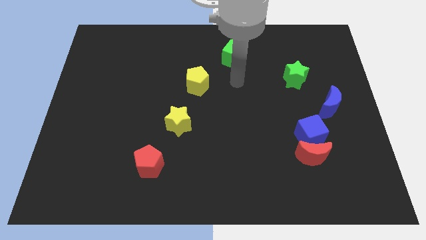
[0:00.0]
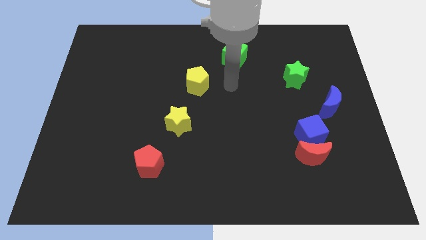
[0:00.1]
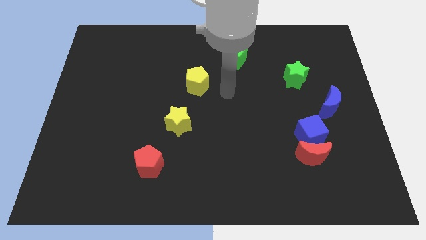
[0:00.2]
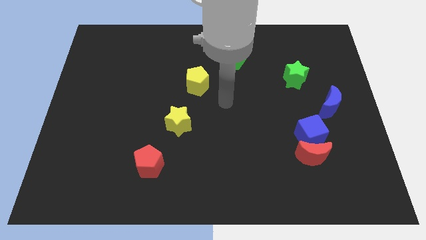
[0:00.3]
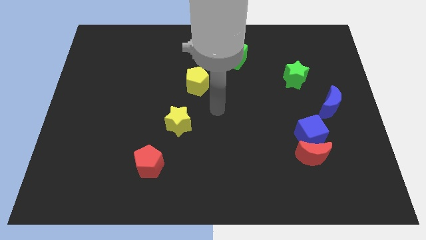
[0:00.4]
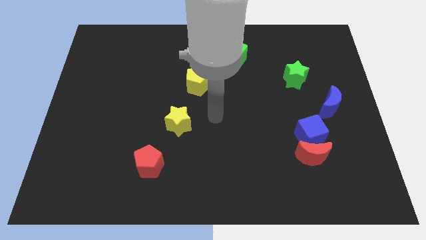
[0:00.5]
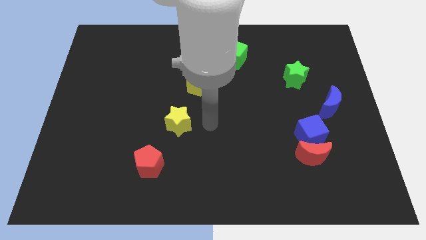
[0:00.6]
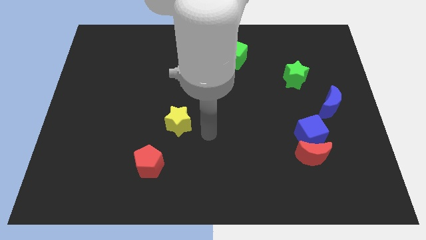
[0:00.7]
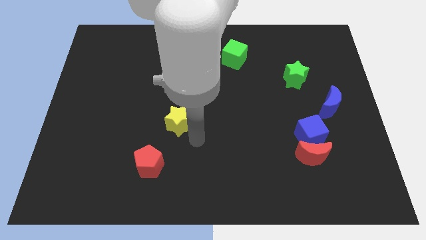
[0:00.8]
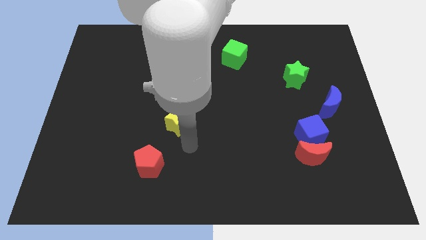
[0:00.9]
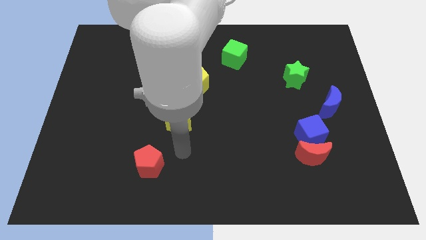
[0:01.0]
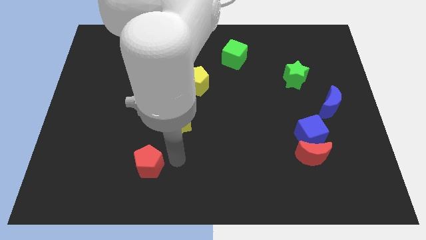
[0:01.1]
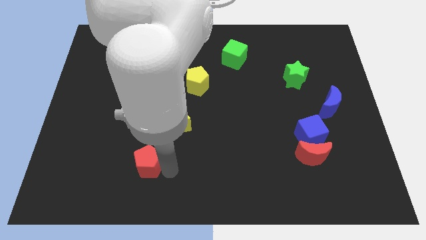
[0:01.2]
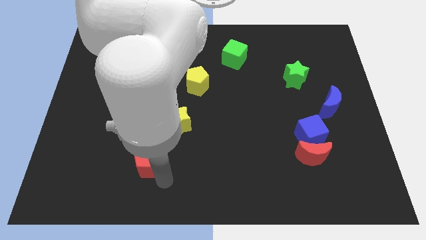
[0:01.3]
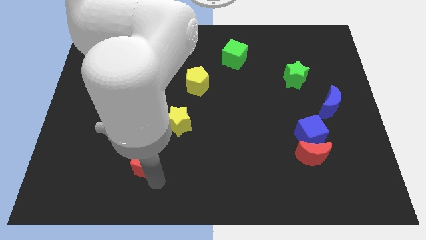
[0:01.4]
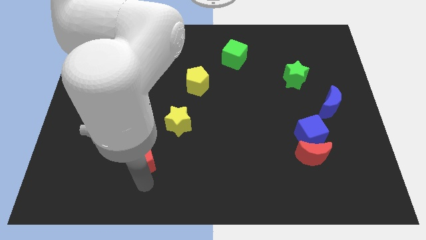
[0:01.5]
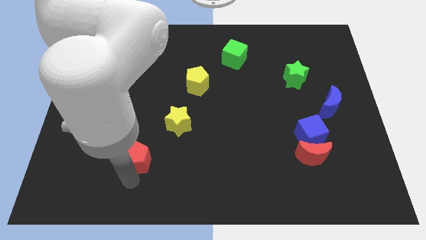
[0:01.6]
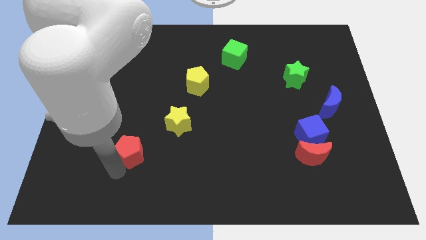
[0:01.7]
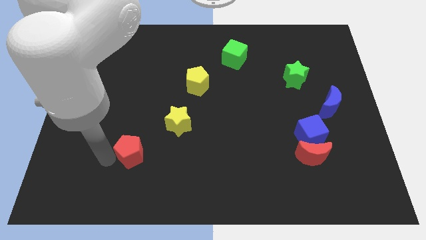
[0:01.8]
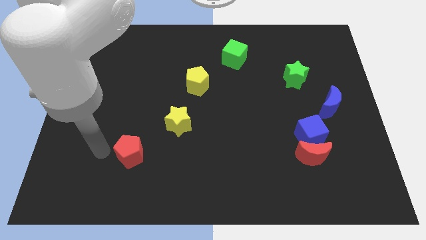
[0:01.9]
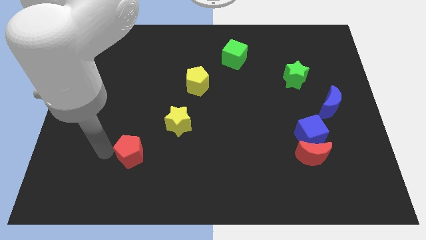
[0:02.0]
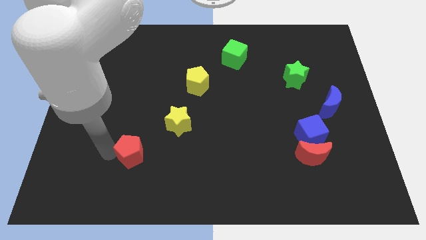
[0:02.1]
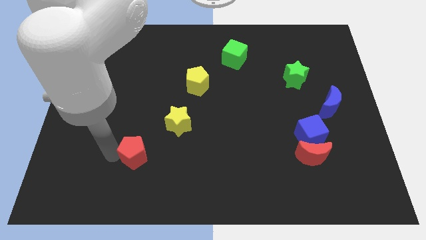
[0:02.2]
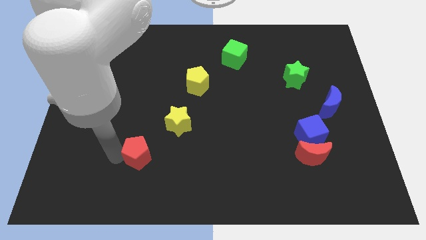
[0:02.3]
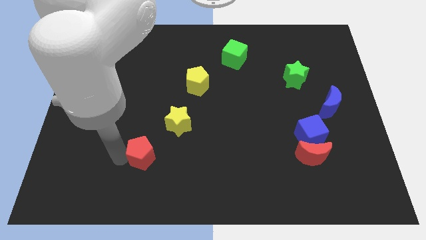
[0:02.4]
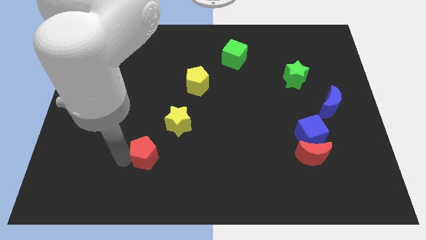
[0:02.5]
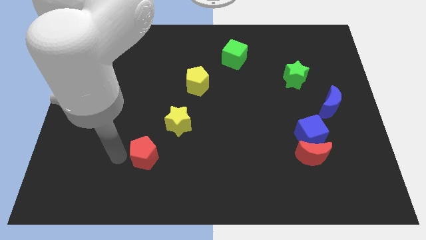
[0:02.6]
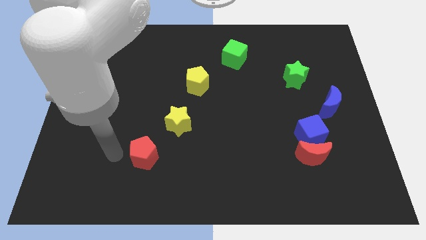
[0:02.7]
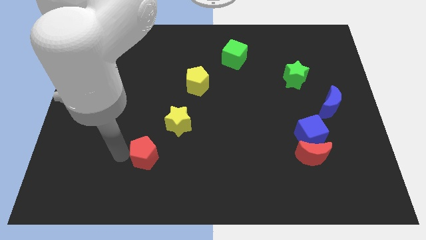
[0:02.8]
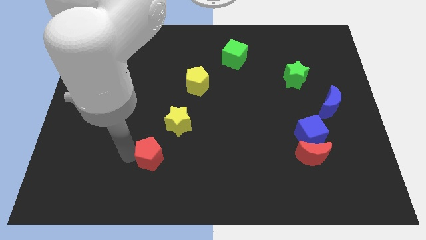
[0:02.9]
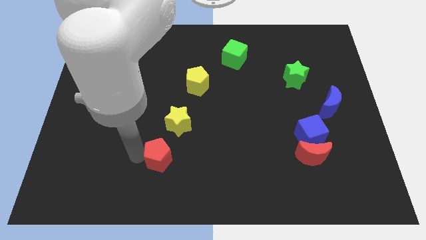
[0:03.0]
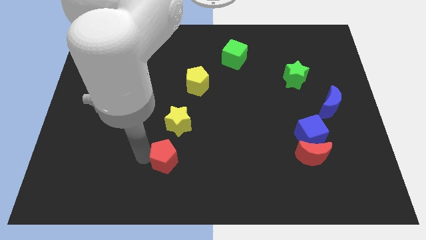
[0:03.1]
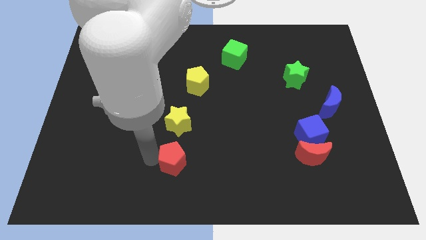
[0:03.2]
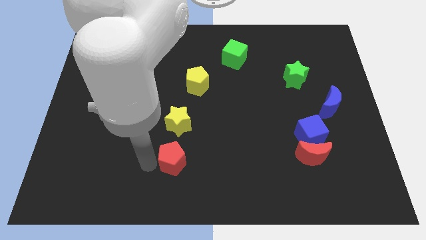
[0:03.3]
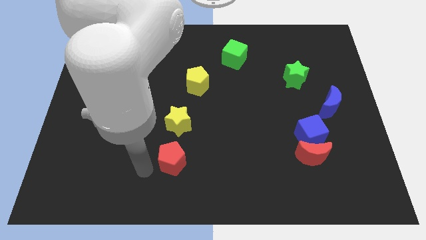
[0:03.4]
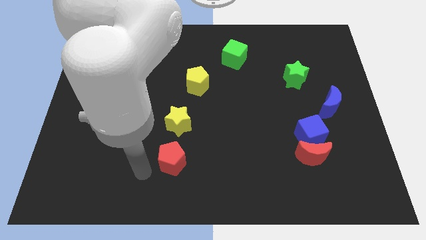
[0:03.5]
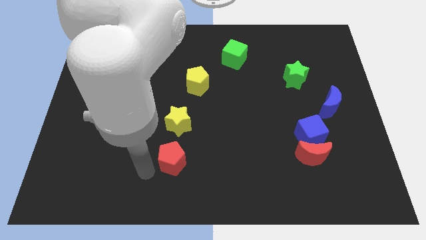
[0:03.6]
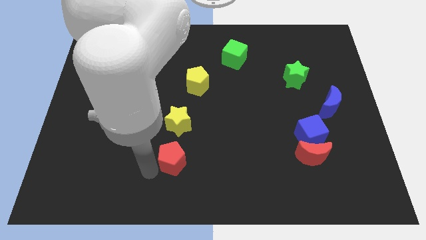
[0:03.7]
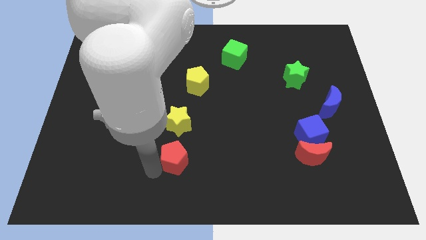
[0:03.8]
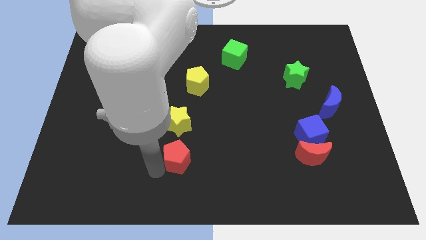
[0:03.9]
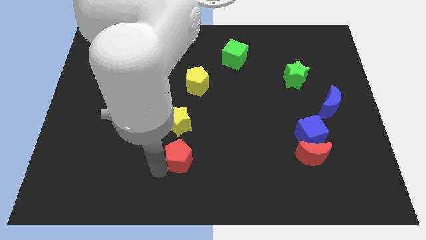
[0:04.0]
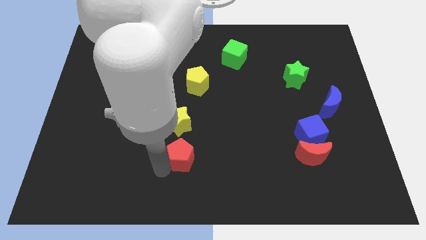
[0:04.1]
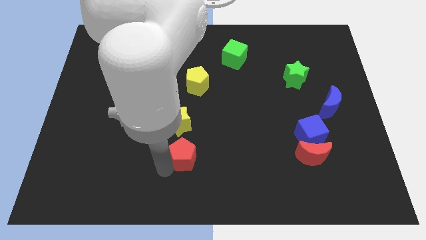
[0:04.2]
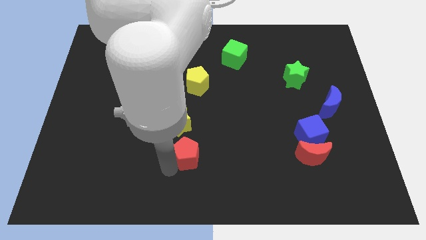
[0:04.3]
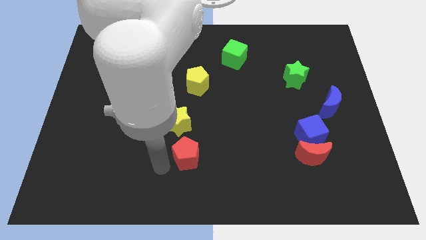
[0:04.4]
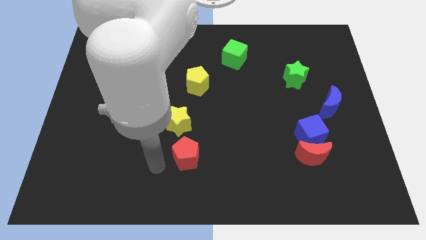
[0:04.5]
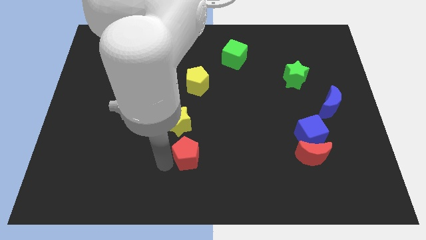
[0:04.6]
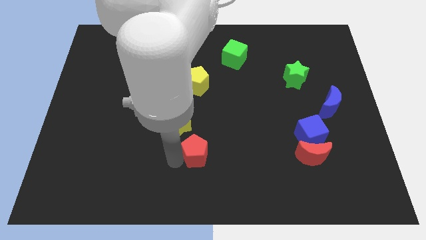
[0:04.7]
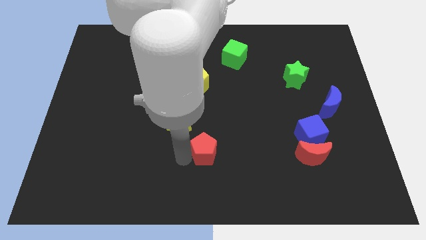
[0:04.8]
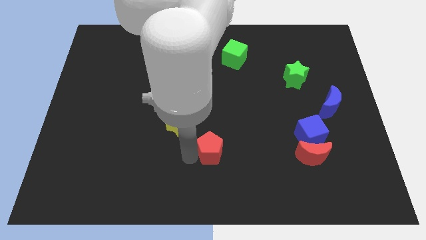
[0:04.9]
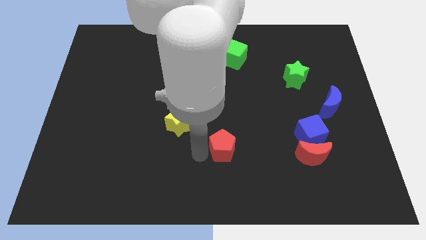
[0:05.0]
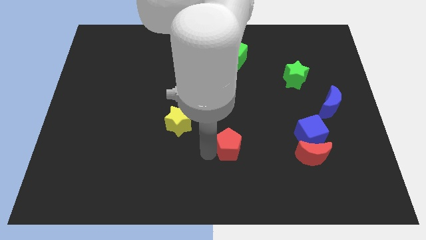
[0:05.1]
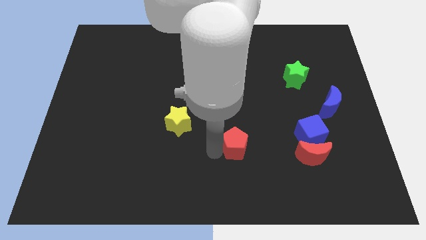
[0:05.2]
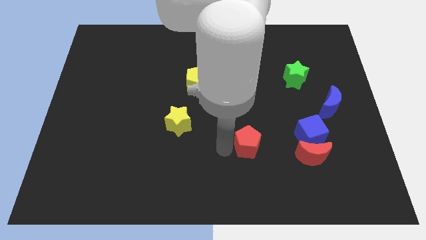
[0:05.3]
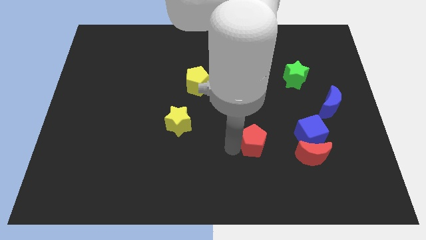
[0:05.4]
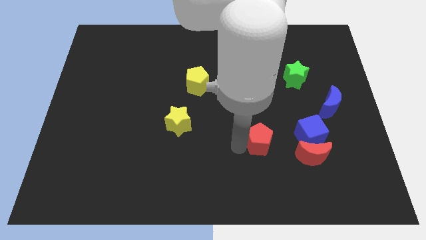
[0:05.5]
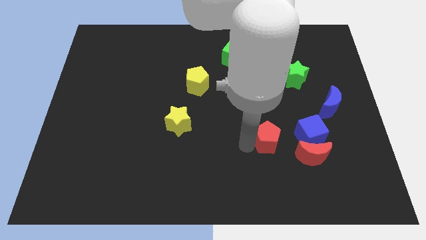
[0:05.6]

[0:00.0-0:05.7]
slide the red pentagon to the top left of the red moon

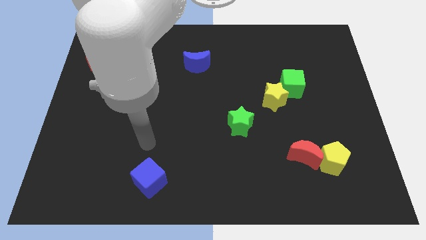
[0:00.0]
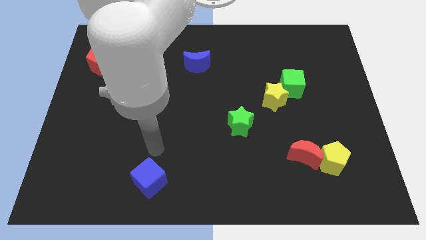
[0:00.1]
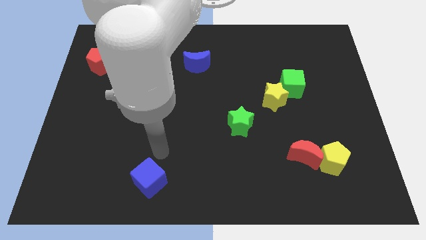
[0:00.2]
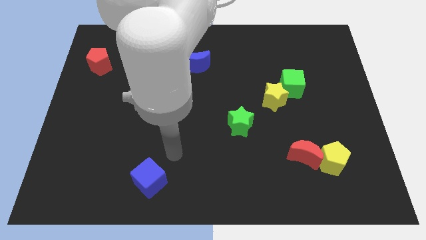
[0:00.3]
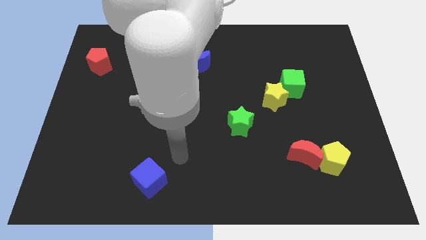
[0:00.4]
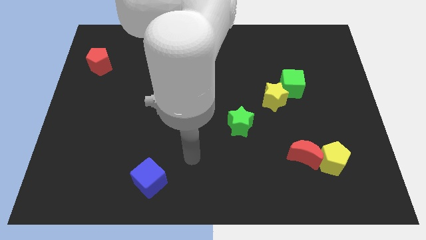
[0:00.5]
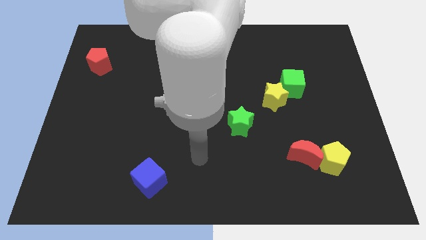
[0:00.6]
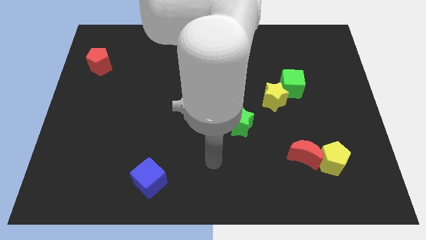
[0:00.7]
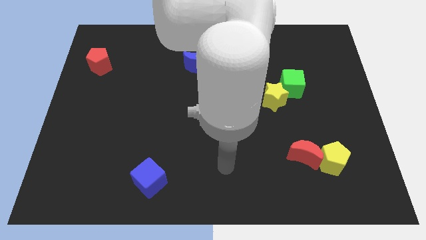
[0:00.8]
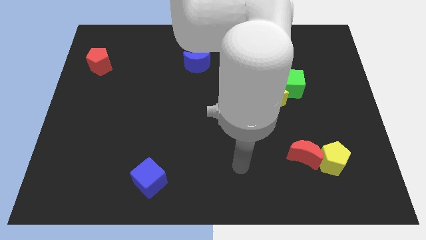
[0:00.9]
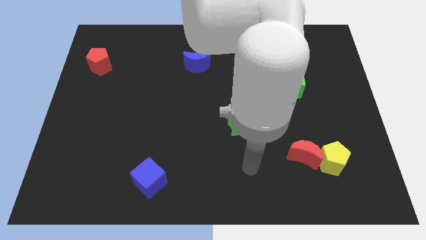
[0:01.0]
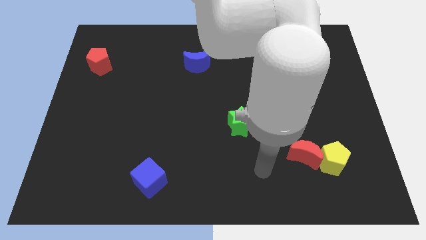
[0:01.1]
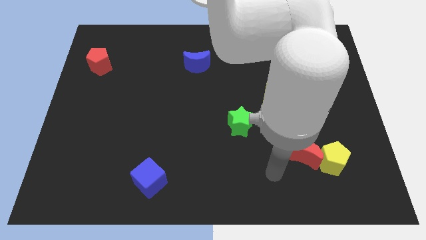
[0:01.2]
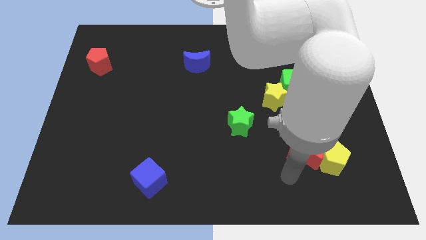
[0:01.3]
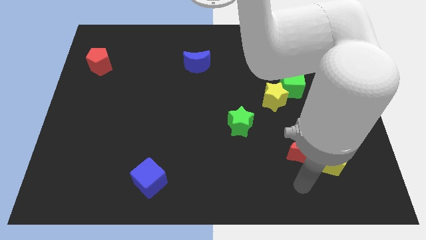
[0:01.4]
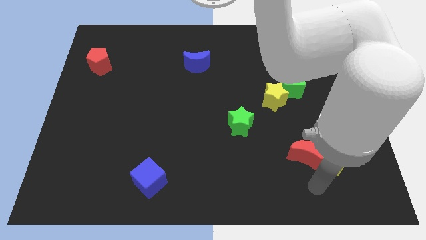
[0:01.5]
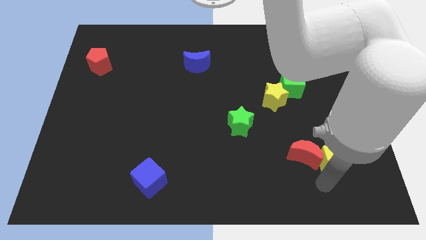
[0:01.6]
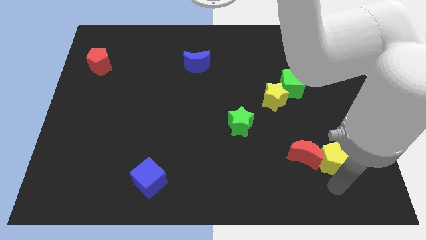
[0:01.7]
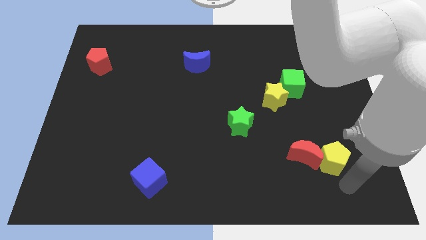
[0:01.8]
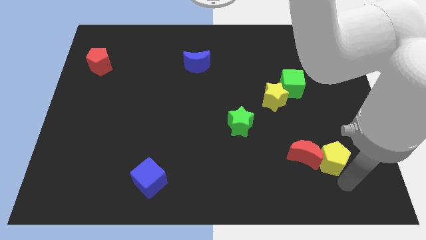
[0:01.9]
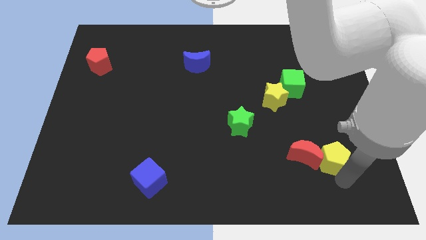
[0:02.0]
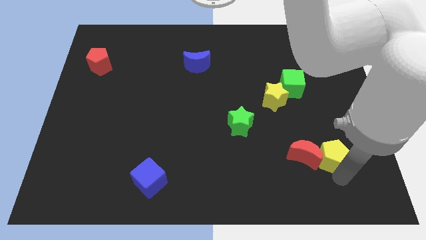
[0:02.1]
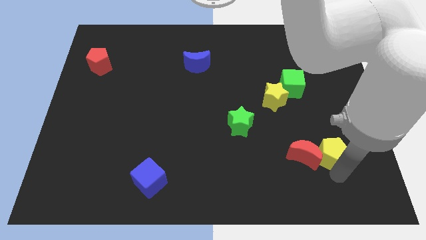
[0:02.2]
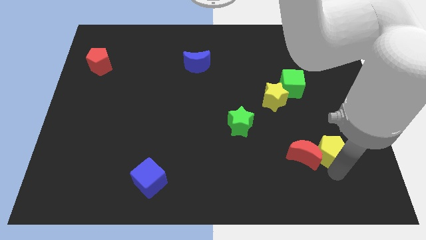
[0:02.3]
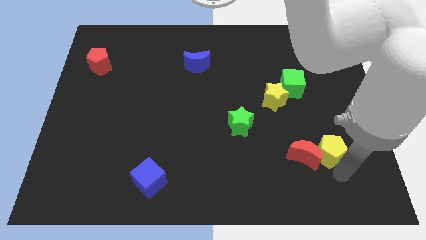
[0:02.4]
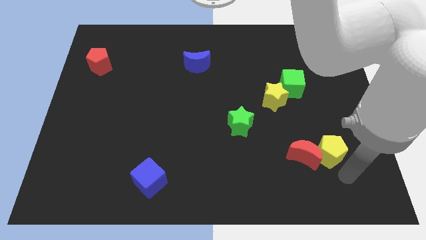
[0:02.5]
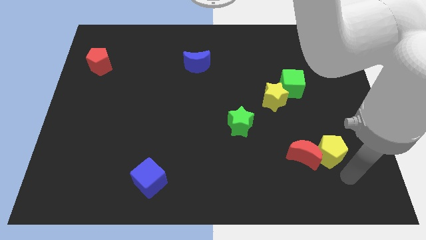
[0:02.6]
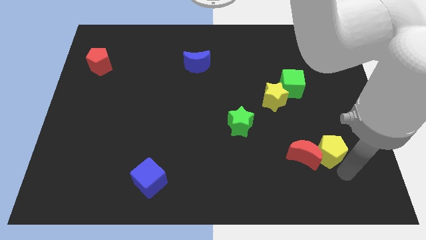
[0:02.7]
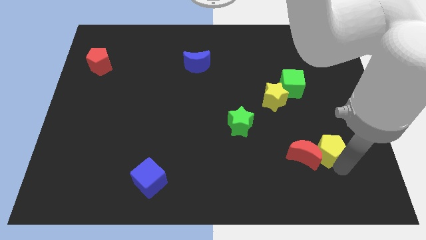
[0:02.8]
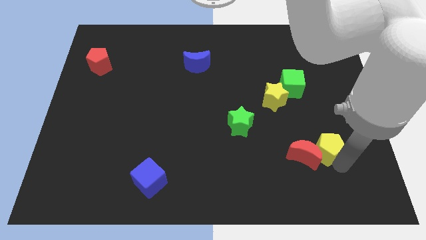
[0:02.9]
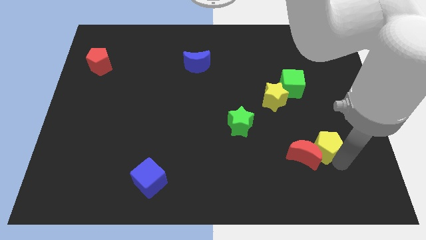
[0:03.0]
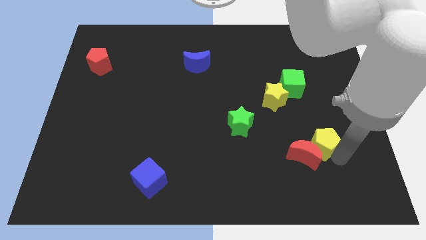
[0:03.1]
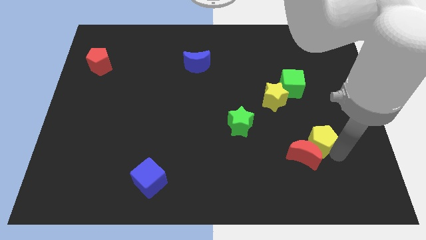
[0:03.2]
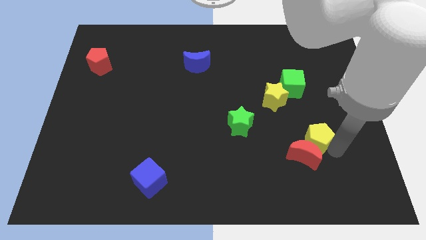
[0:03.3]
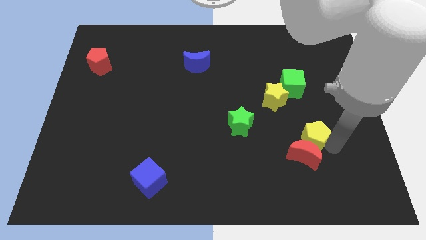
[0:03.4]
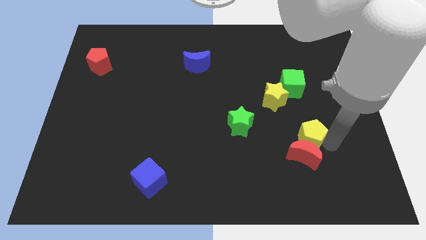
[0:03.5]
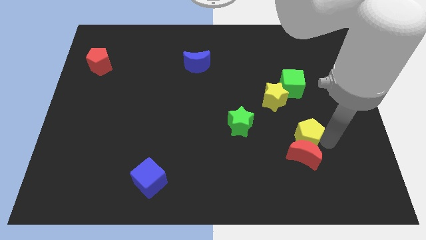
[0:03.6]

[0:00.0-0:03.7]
put the yellow pentagon to the right of the green star
